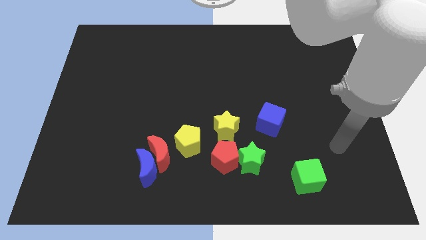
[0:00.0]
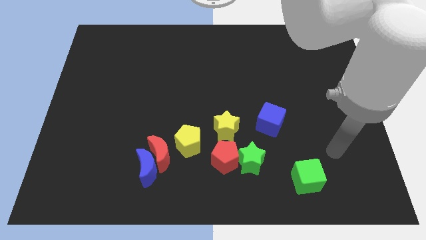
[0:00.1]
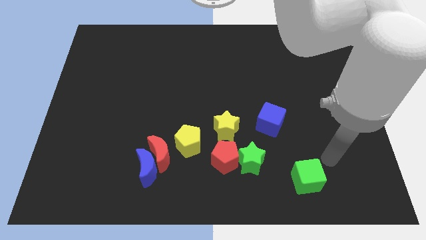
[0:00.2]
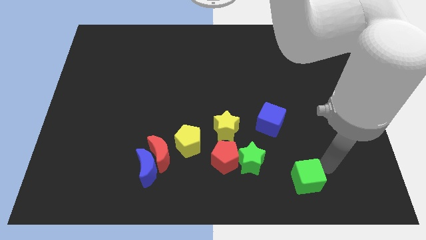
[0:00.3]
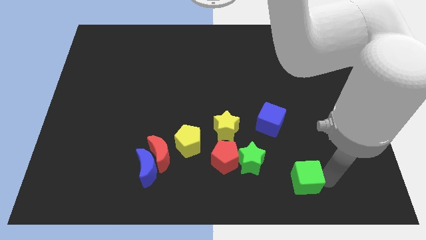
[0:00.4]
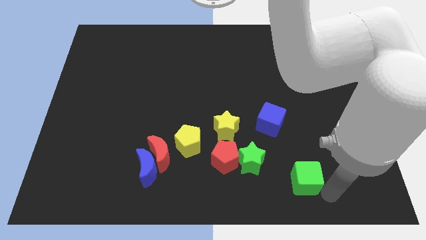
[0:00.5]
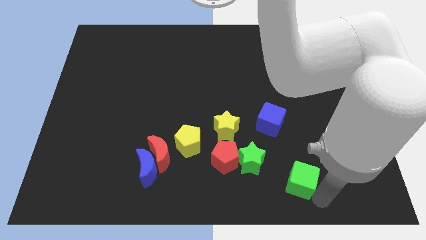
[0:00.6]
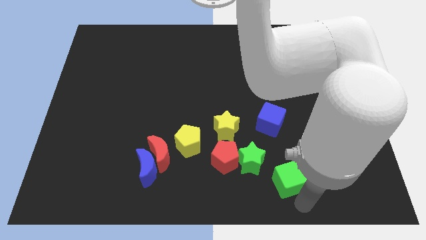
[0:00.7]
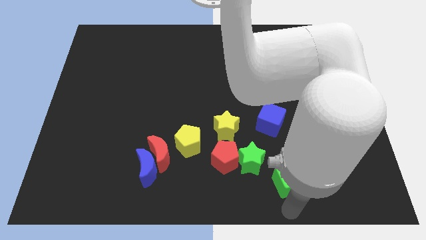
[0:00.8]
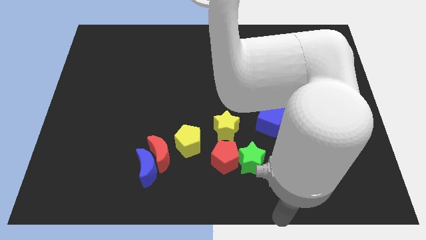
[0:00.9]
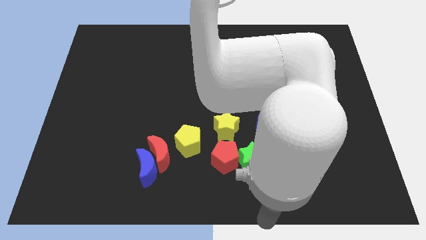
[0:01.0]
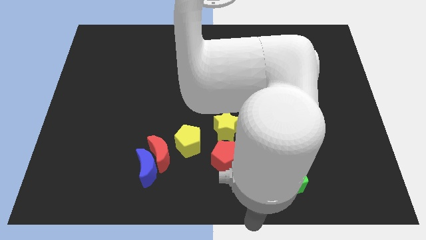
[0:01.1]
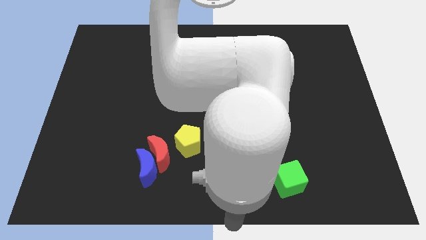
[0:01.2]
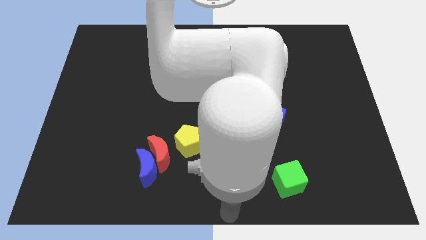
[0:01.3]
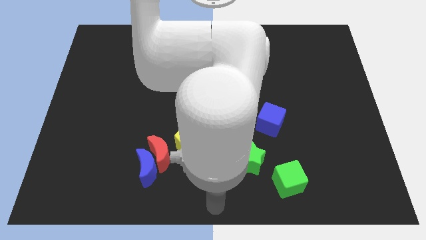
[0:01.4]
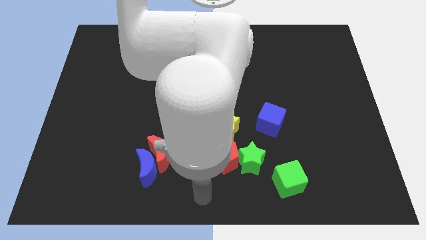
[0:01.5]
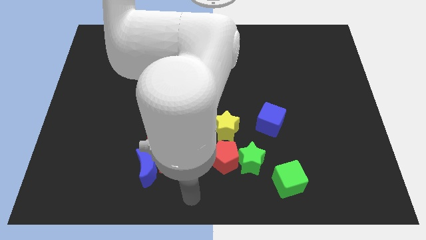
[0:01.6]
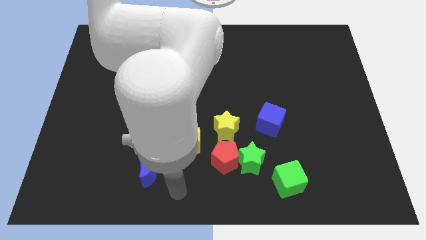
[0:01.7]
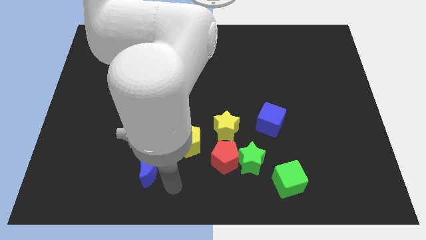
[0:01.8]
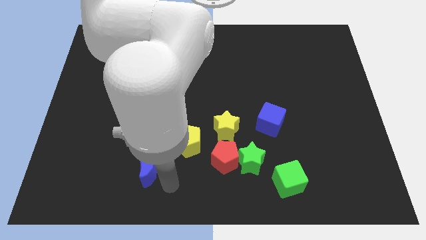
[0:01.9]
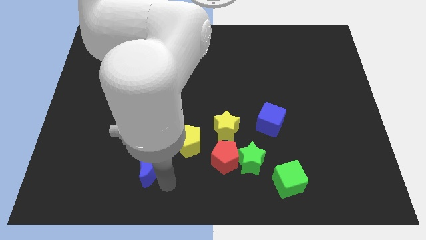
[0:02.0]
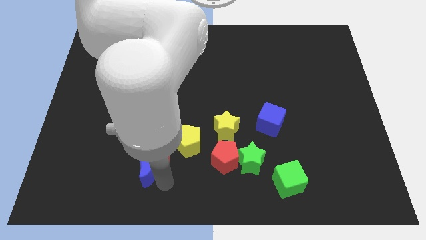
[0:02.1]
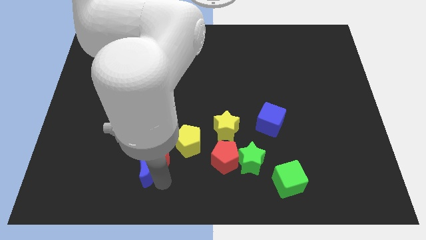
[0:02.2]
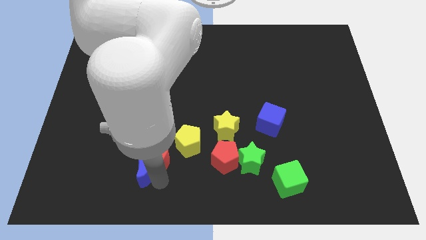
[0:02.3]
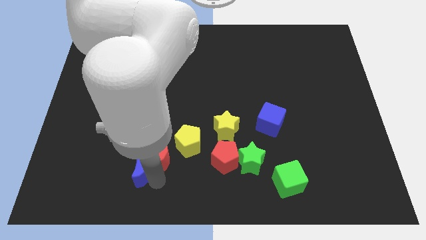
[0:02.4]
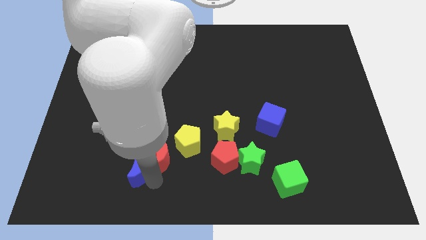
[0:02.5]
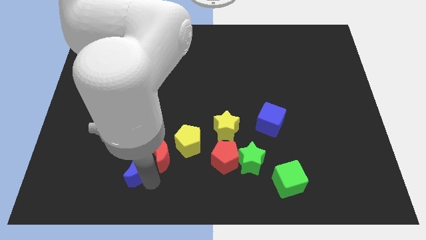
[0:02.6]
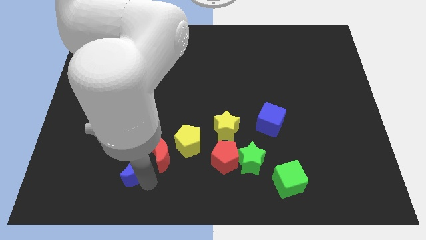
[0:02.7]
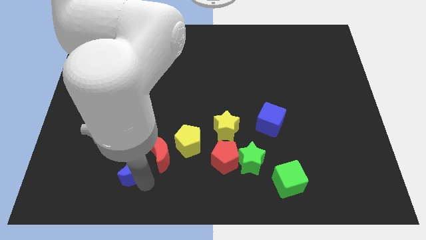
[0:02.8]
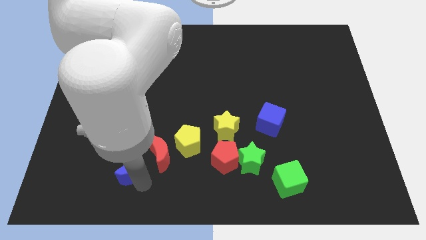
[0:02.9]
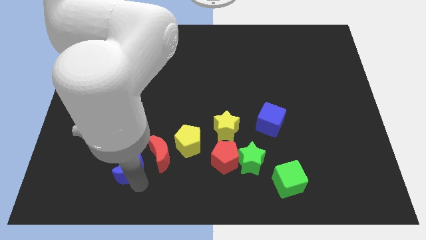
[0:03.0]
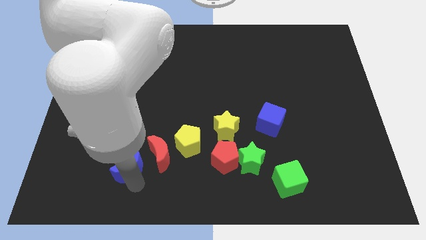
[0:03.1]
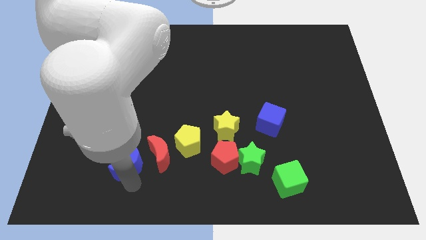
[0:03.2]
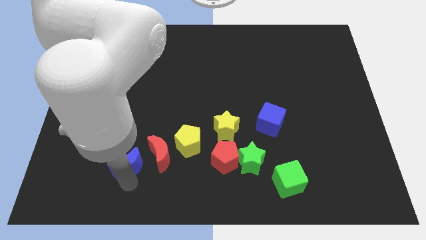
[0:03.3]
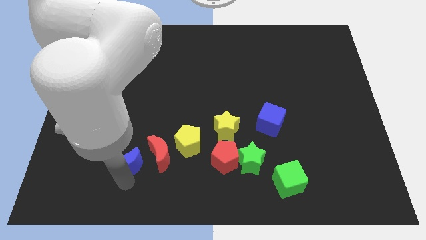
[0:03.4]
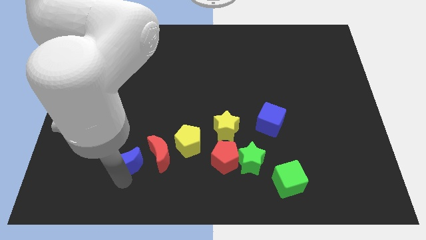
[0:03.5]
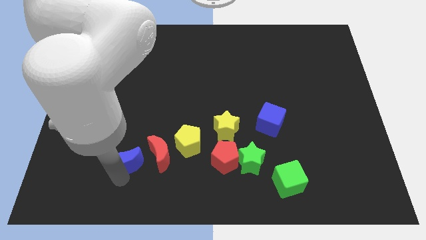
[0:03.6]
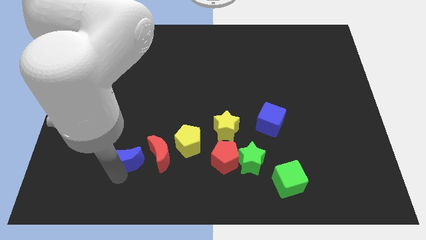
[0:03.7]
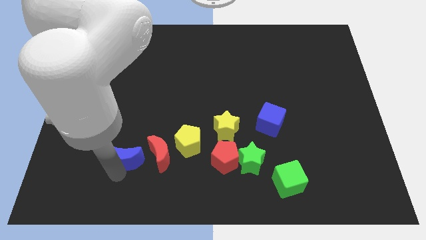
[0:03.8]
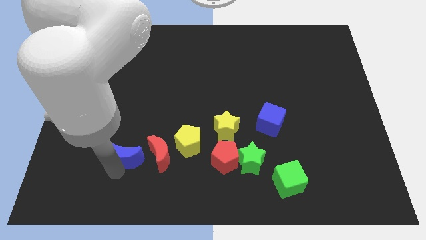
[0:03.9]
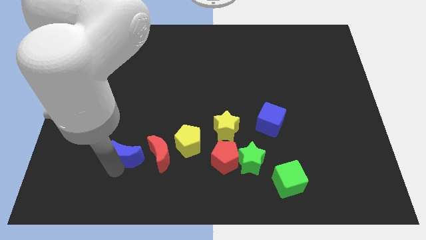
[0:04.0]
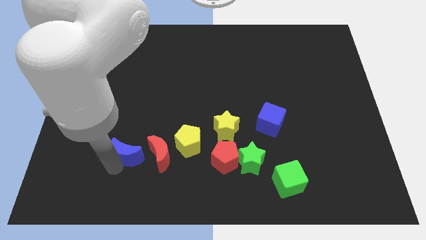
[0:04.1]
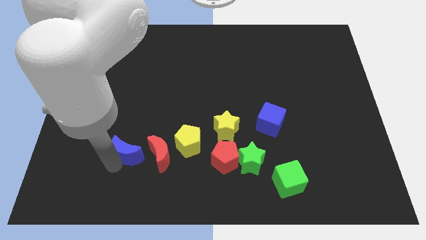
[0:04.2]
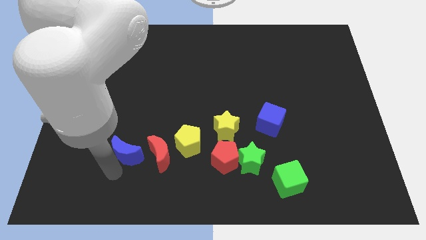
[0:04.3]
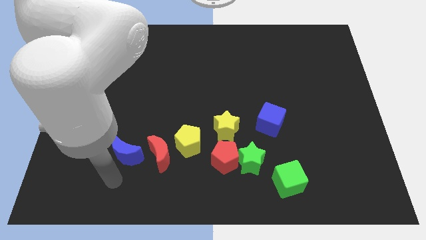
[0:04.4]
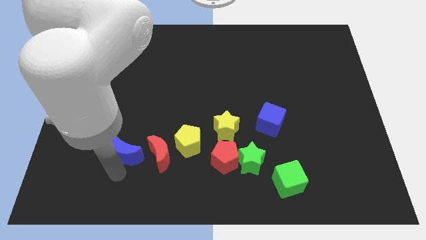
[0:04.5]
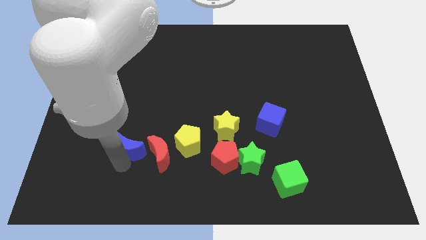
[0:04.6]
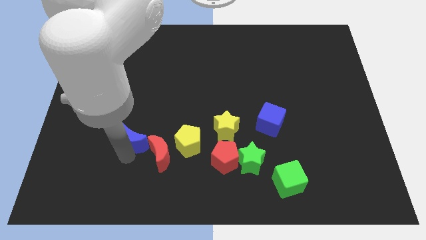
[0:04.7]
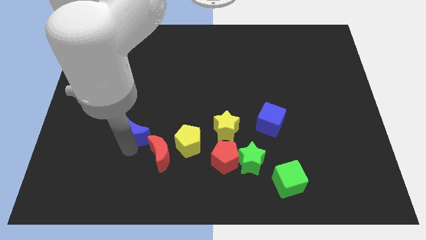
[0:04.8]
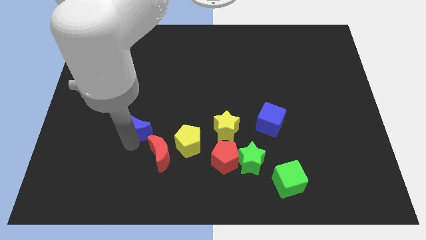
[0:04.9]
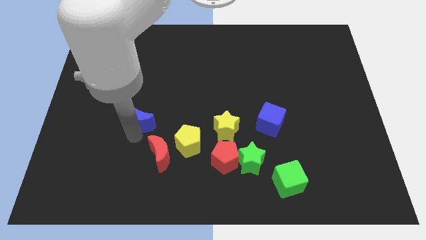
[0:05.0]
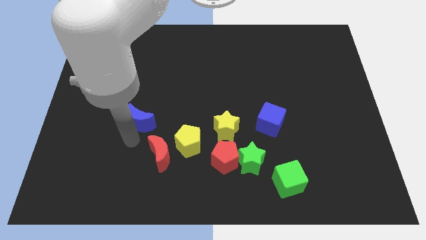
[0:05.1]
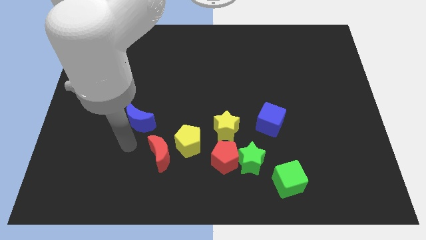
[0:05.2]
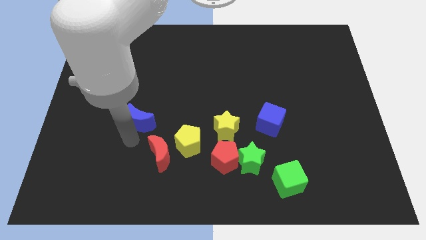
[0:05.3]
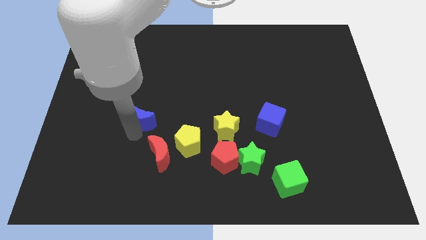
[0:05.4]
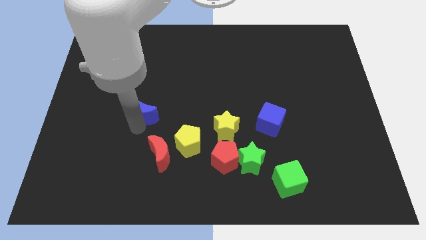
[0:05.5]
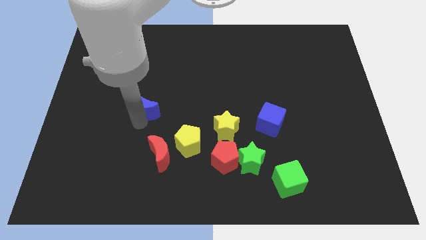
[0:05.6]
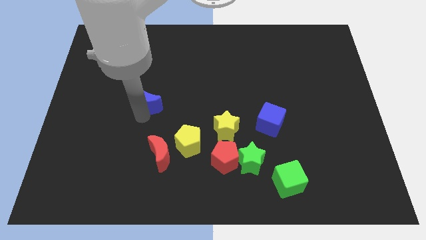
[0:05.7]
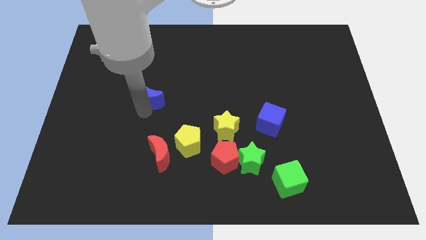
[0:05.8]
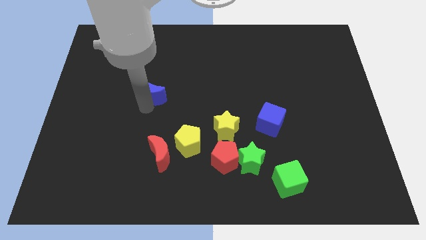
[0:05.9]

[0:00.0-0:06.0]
push the blue moon up

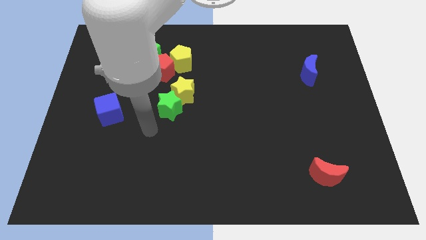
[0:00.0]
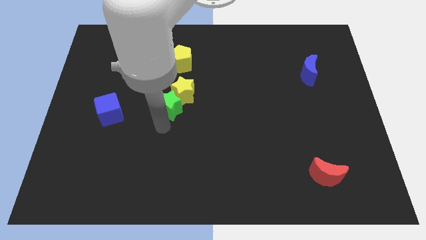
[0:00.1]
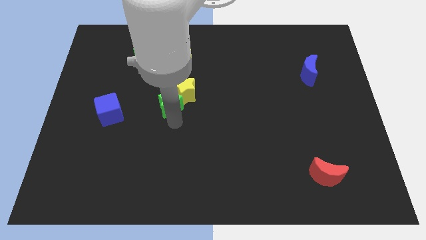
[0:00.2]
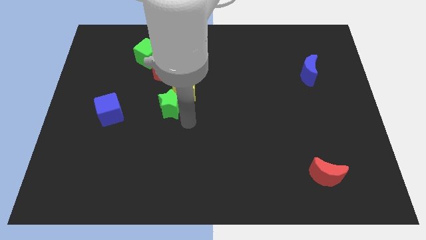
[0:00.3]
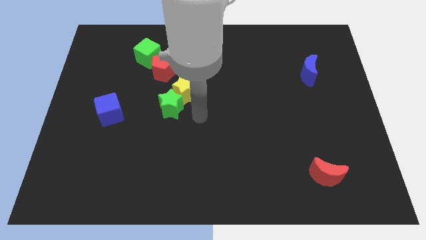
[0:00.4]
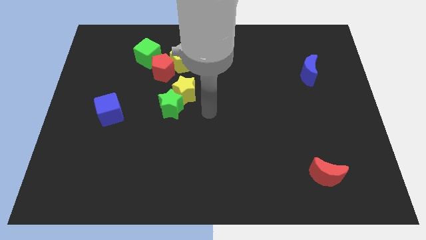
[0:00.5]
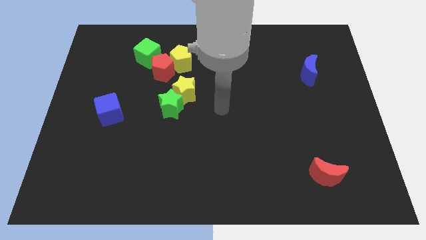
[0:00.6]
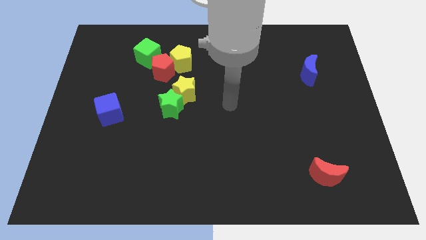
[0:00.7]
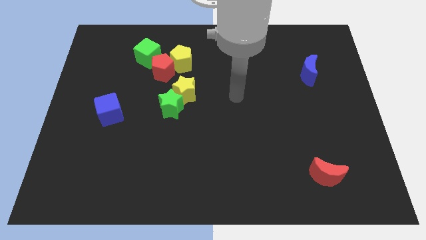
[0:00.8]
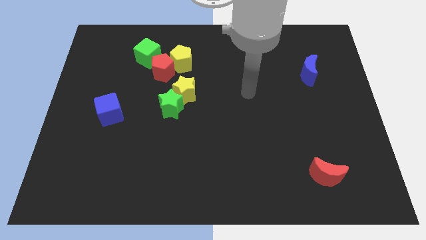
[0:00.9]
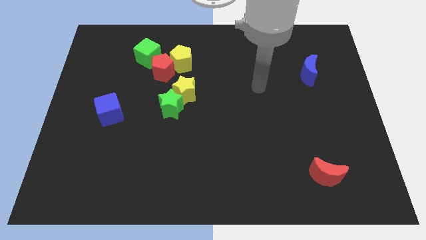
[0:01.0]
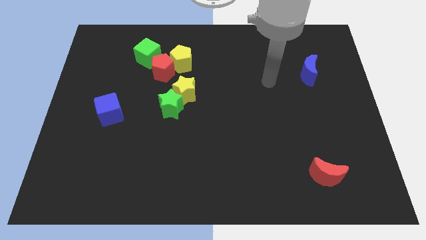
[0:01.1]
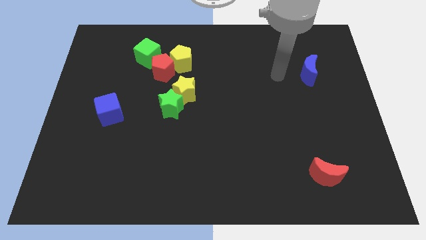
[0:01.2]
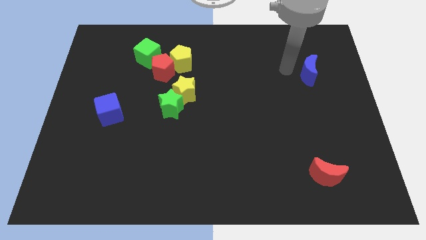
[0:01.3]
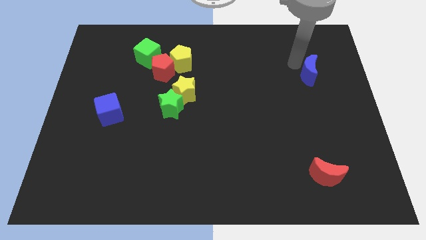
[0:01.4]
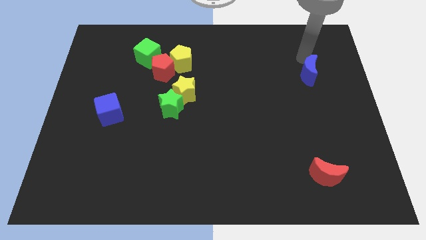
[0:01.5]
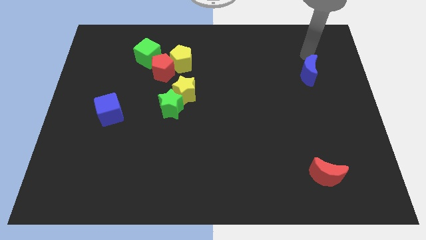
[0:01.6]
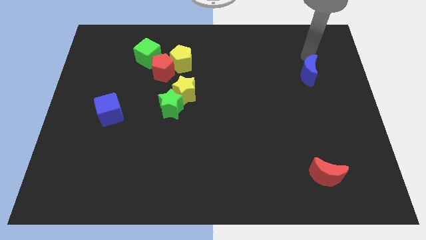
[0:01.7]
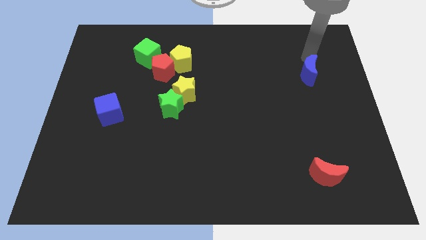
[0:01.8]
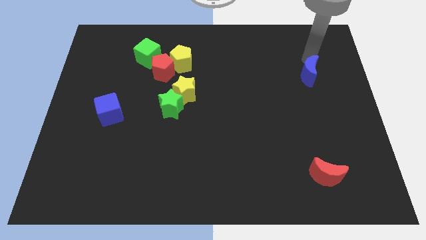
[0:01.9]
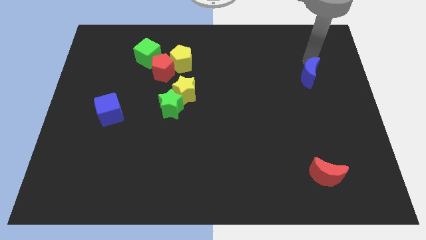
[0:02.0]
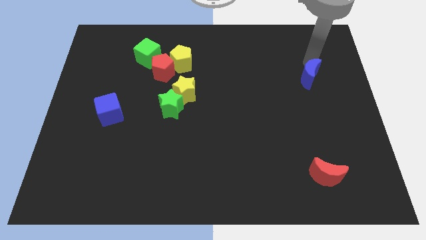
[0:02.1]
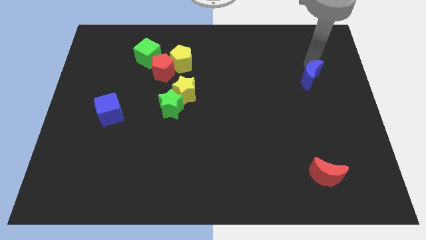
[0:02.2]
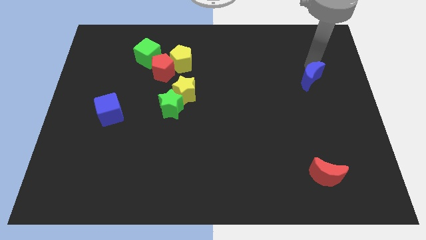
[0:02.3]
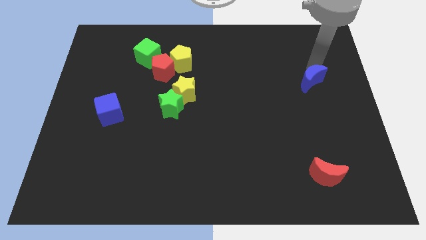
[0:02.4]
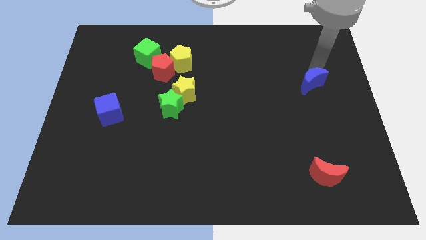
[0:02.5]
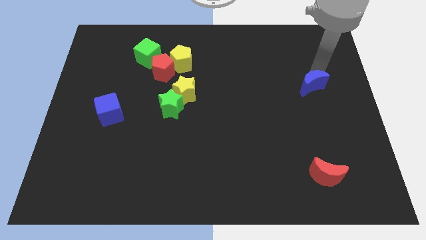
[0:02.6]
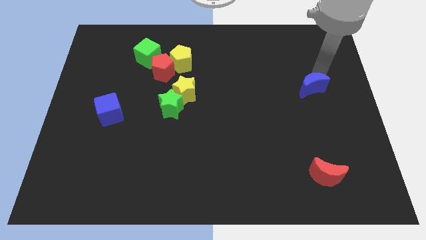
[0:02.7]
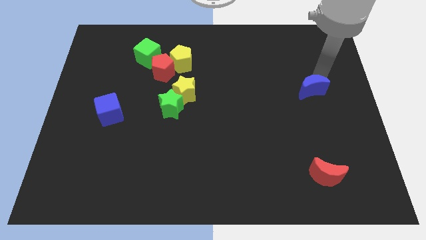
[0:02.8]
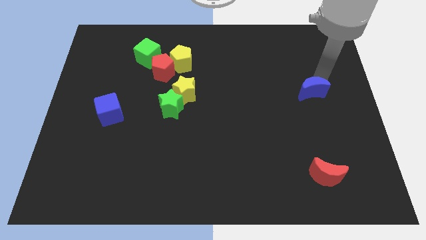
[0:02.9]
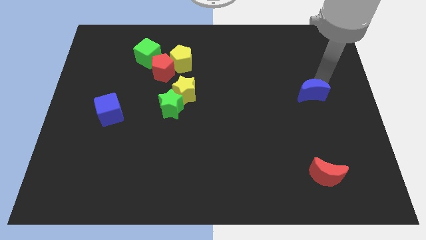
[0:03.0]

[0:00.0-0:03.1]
slightly move the blue moon down
